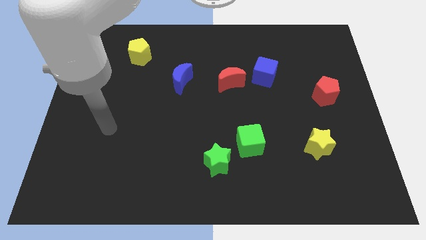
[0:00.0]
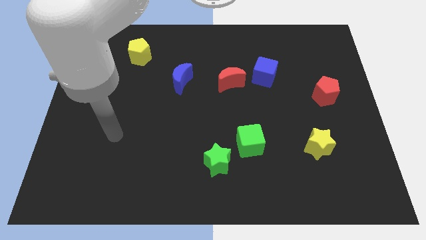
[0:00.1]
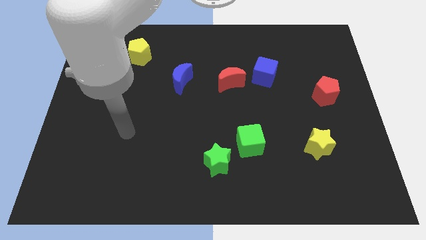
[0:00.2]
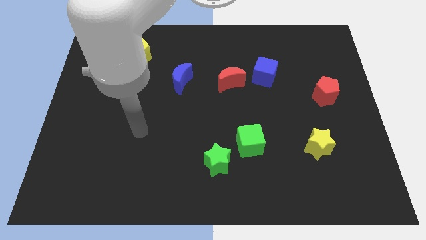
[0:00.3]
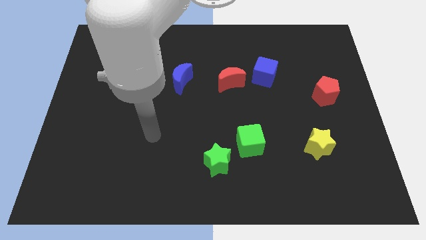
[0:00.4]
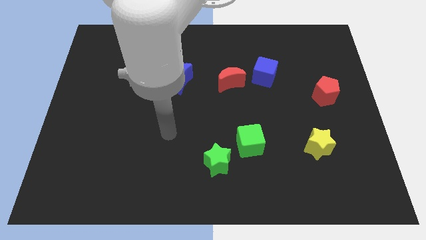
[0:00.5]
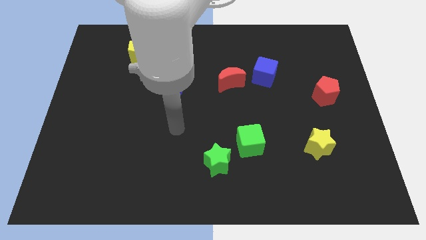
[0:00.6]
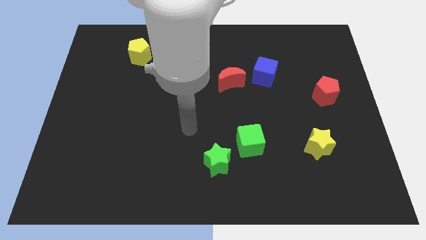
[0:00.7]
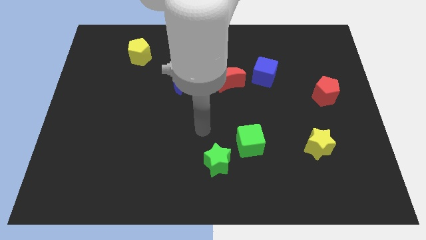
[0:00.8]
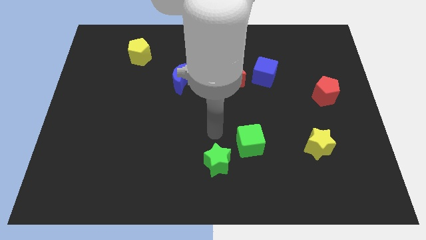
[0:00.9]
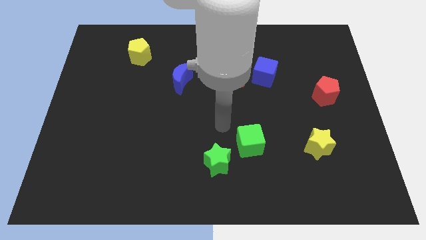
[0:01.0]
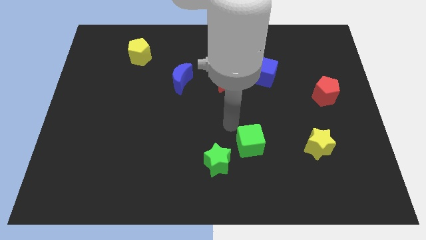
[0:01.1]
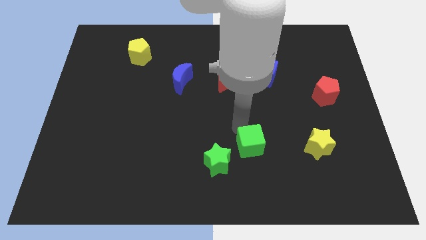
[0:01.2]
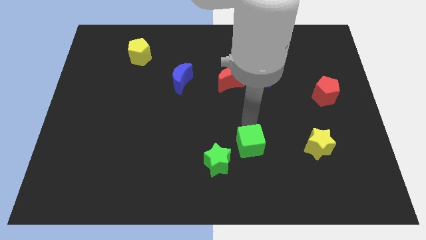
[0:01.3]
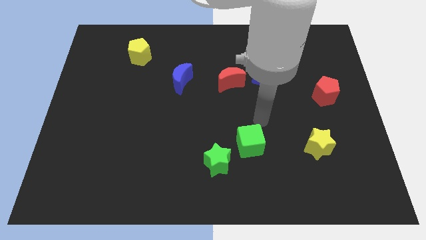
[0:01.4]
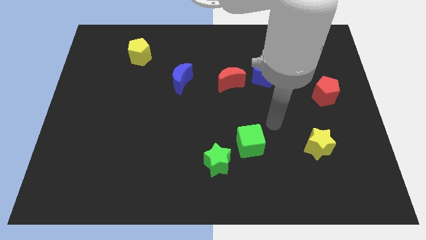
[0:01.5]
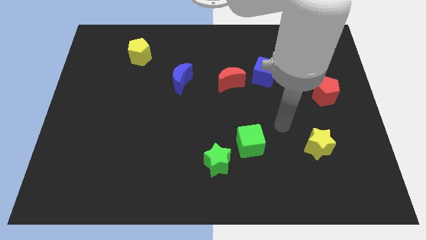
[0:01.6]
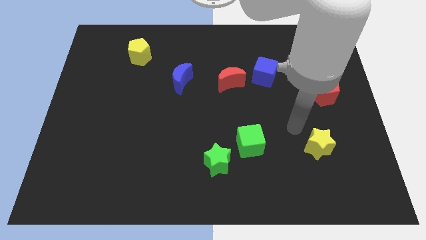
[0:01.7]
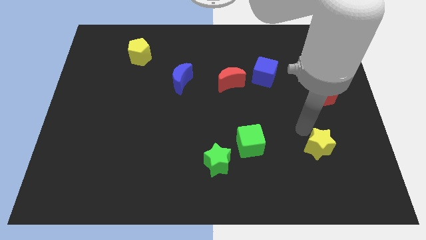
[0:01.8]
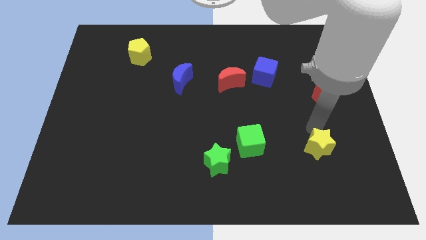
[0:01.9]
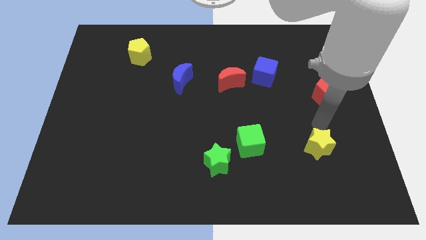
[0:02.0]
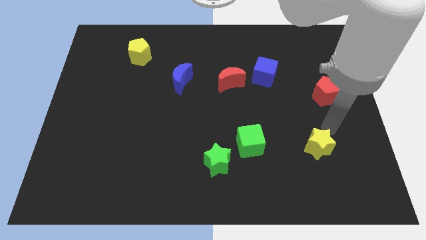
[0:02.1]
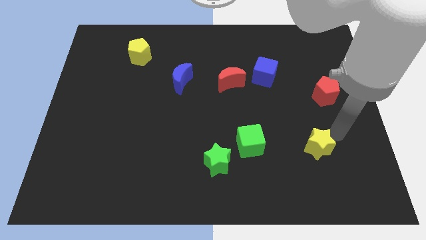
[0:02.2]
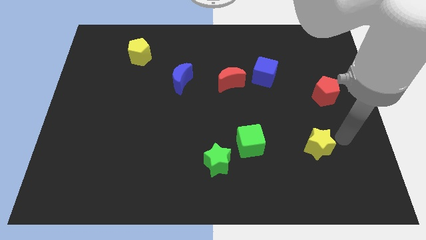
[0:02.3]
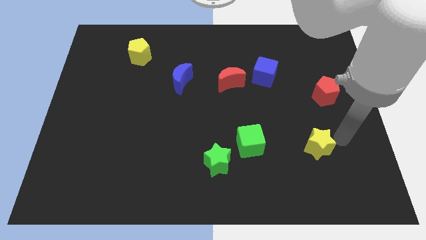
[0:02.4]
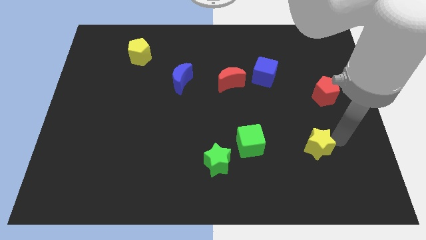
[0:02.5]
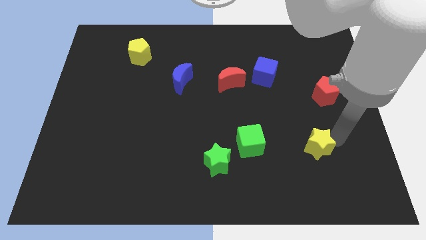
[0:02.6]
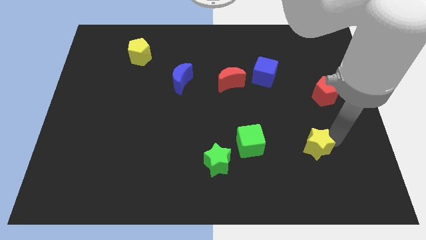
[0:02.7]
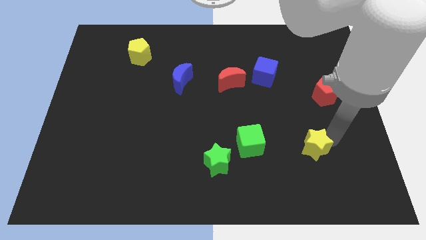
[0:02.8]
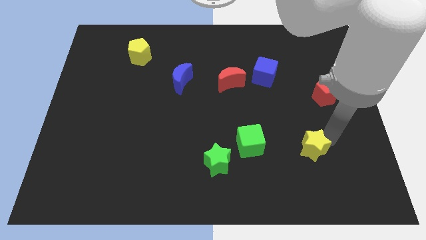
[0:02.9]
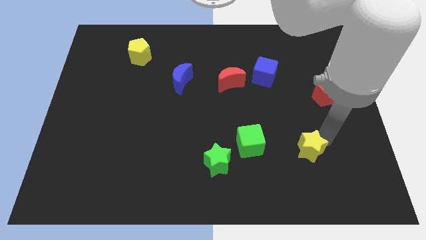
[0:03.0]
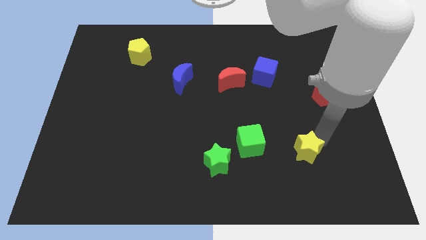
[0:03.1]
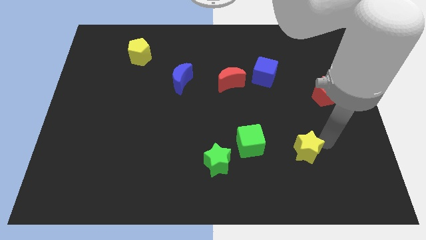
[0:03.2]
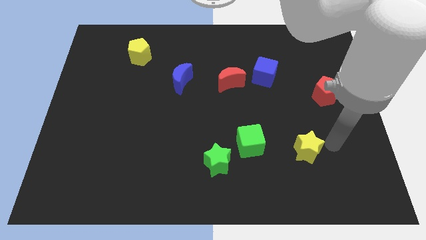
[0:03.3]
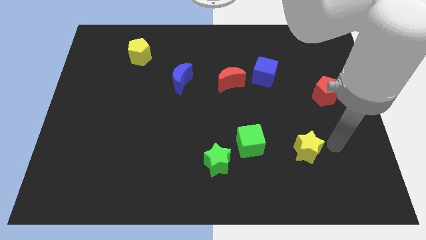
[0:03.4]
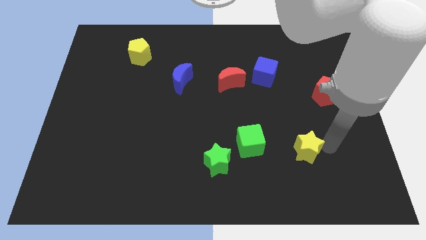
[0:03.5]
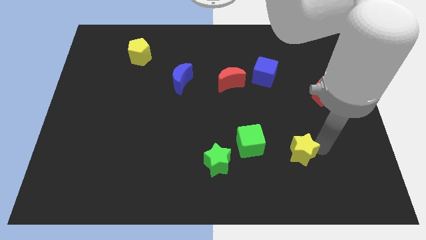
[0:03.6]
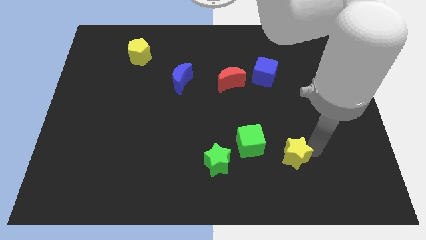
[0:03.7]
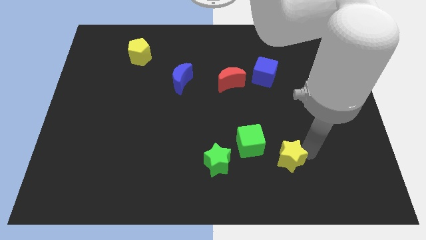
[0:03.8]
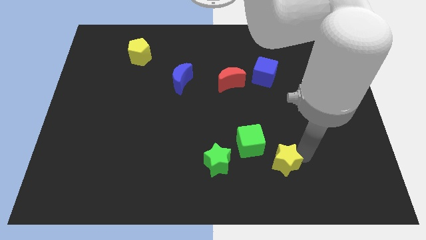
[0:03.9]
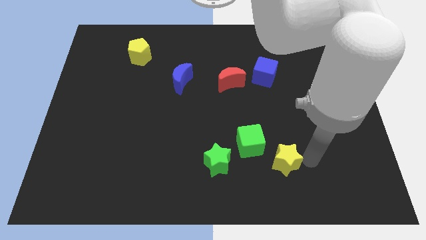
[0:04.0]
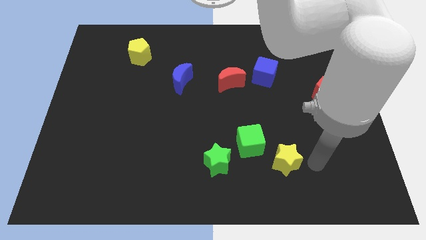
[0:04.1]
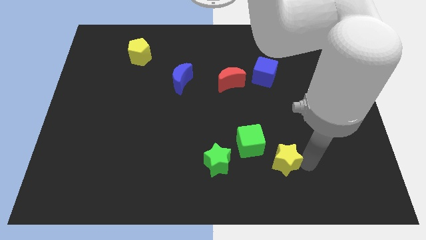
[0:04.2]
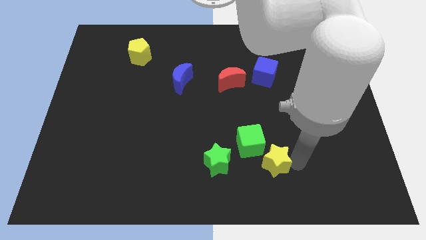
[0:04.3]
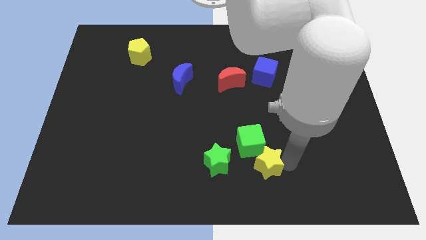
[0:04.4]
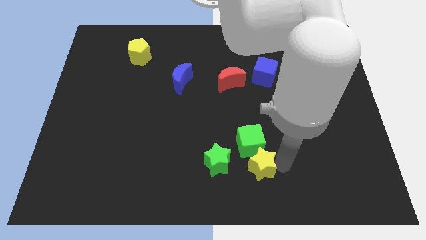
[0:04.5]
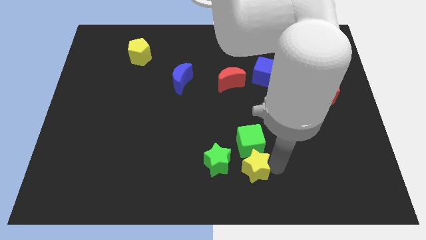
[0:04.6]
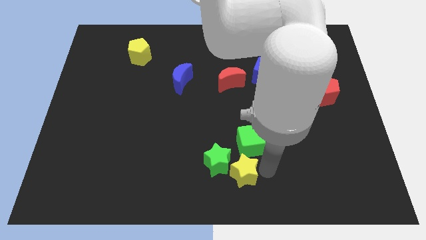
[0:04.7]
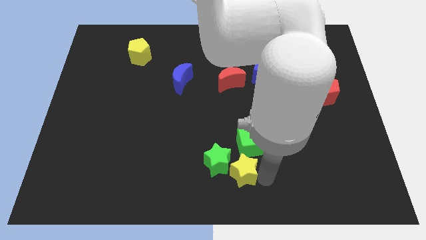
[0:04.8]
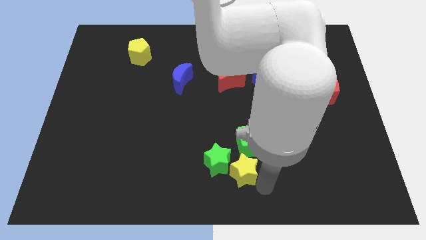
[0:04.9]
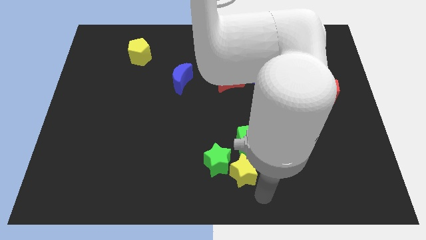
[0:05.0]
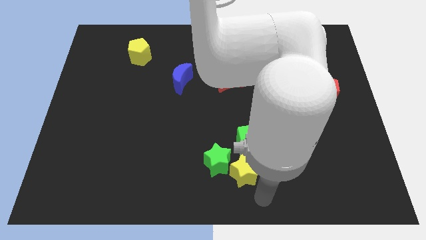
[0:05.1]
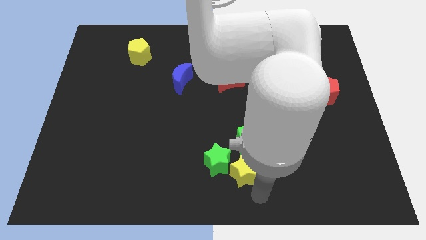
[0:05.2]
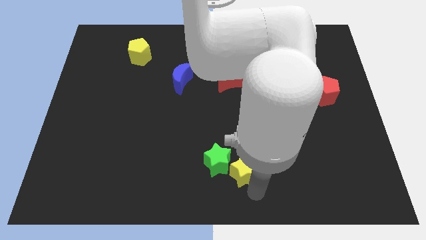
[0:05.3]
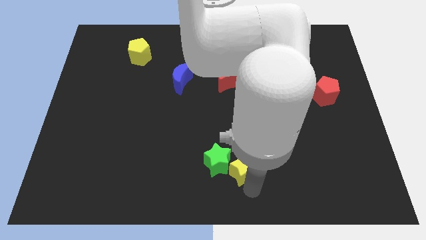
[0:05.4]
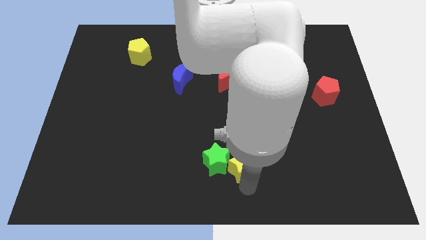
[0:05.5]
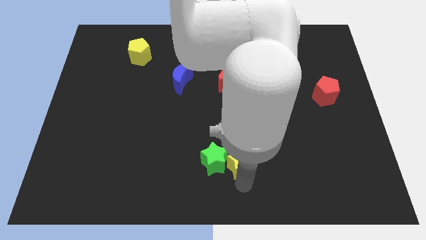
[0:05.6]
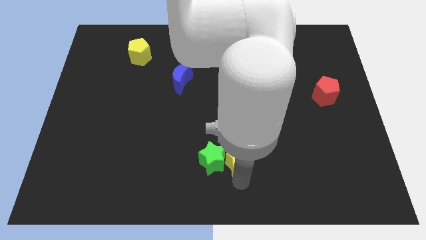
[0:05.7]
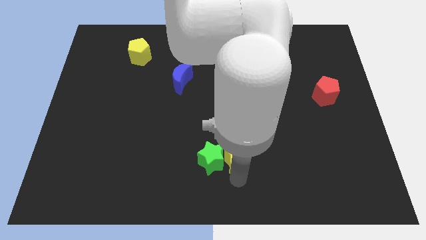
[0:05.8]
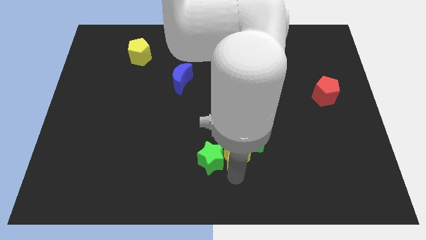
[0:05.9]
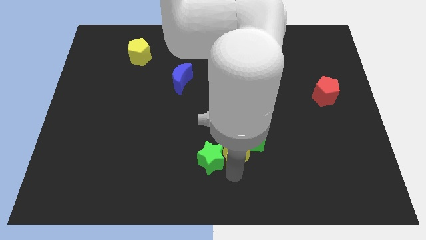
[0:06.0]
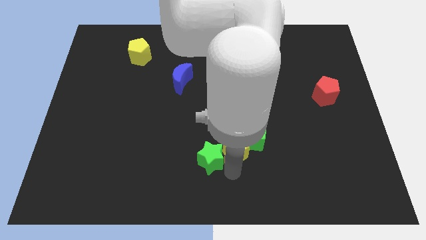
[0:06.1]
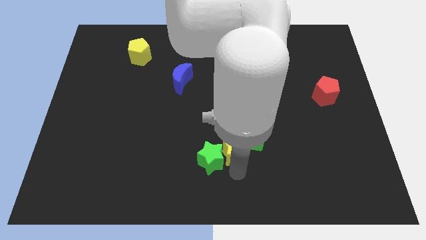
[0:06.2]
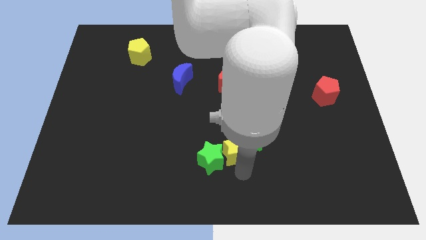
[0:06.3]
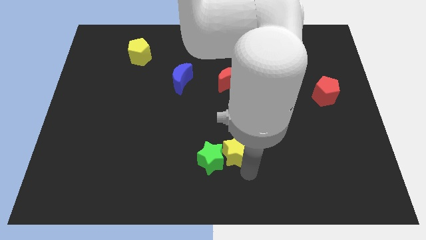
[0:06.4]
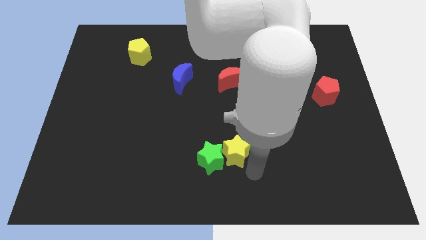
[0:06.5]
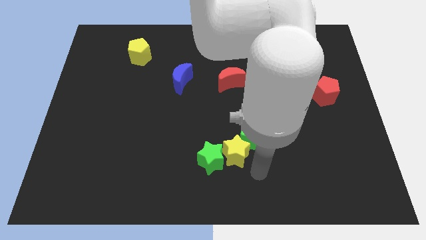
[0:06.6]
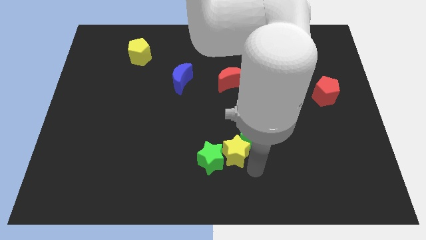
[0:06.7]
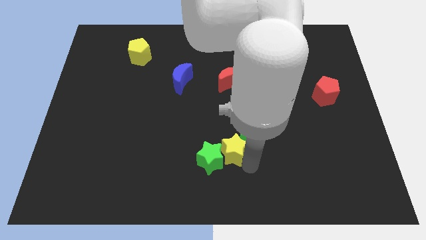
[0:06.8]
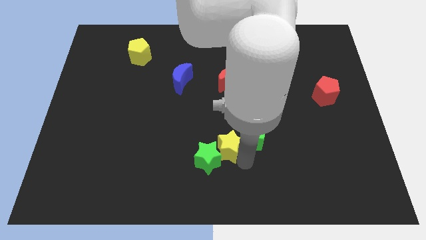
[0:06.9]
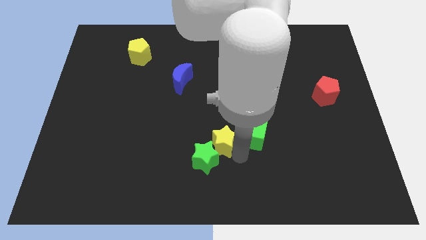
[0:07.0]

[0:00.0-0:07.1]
move the yellow star left

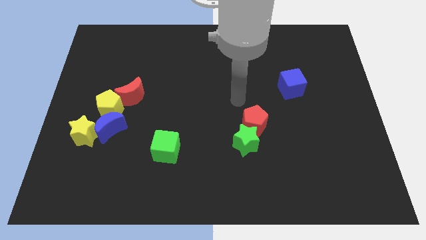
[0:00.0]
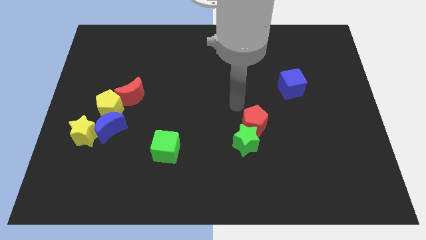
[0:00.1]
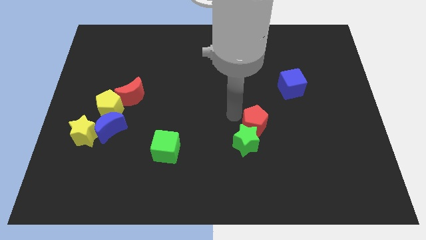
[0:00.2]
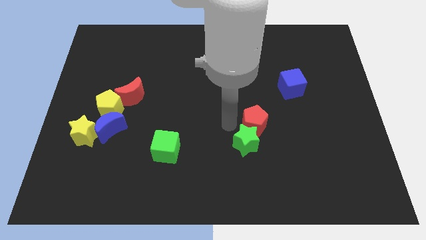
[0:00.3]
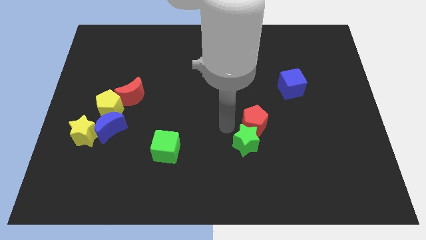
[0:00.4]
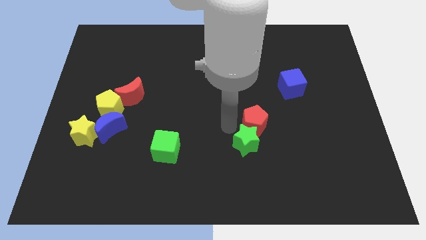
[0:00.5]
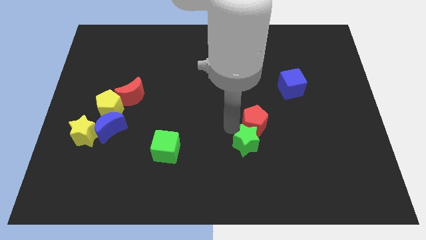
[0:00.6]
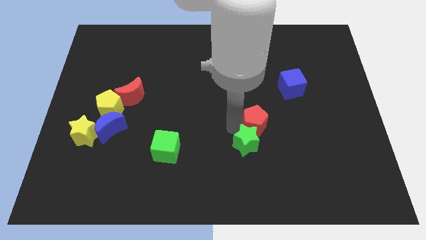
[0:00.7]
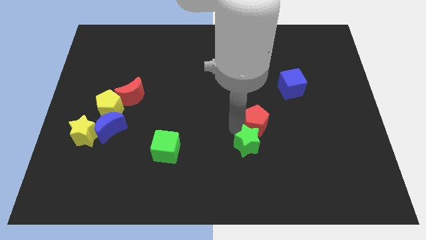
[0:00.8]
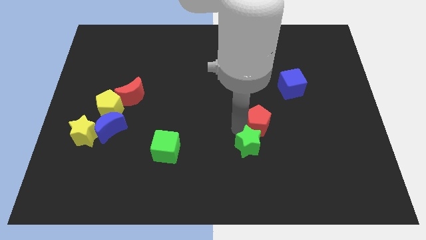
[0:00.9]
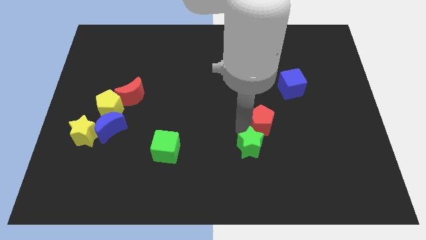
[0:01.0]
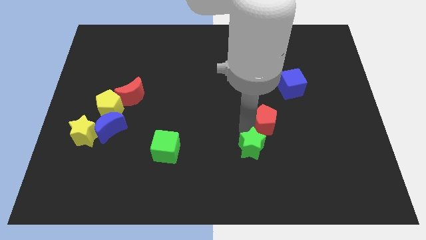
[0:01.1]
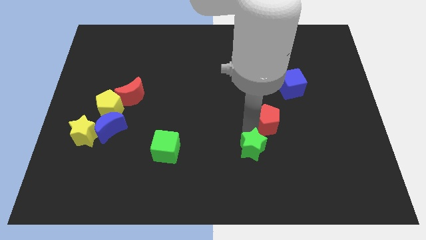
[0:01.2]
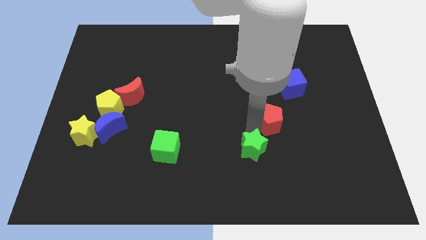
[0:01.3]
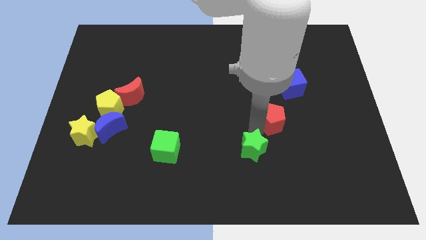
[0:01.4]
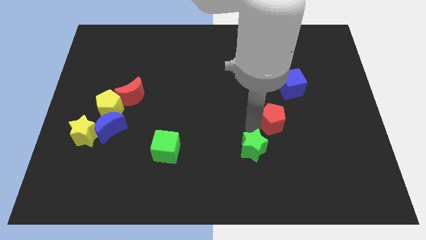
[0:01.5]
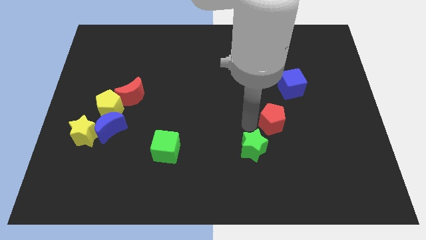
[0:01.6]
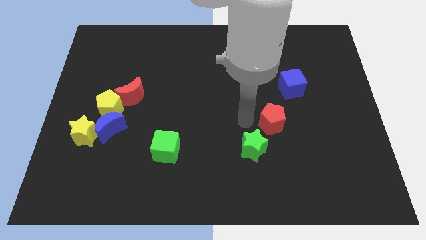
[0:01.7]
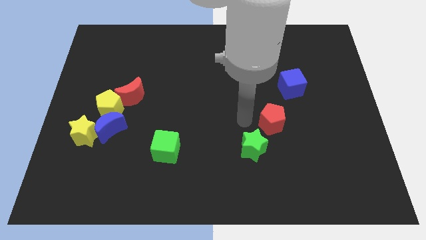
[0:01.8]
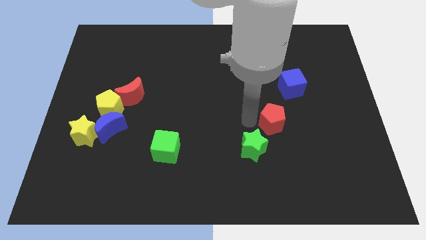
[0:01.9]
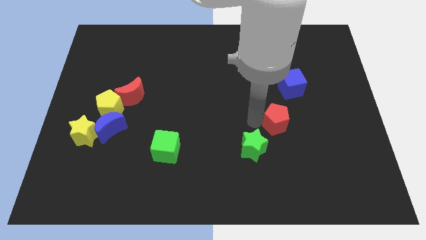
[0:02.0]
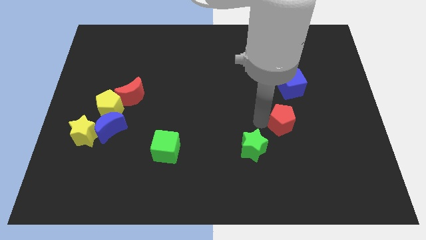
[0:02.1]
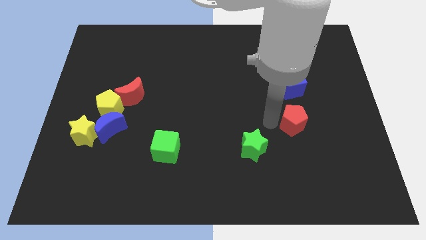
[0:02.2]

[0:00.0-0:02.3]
slide the red pentagon to the right a little bit
